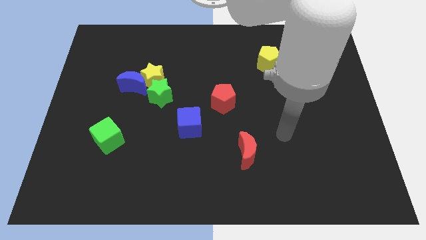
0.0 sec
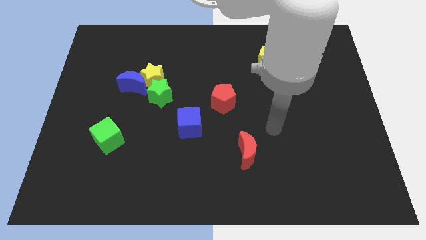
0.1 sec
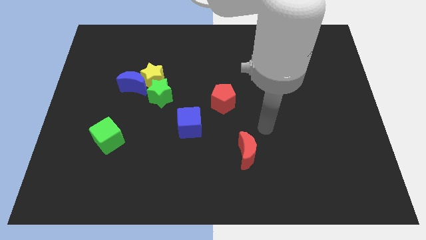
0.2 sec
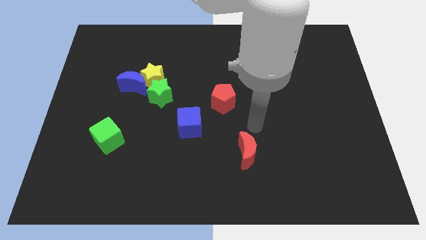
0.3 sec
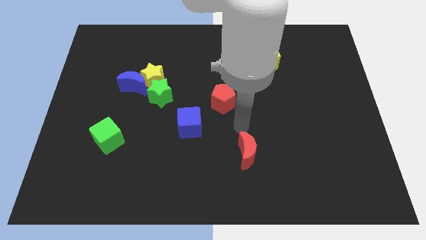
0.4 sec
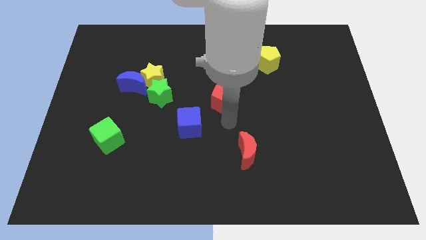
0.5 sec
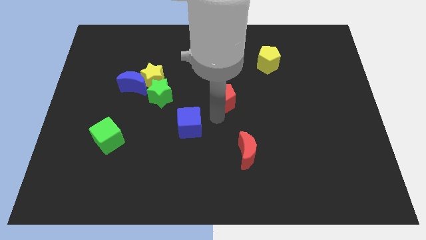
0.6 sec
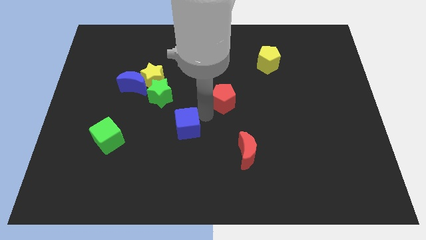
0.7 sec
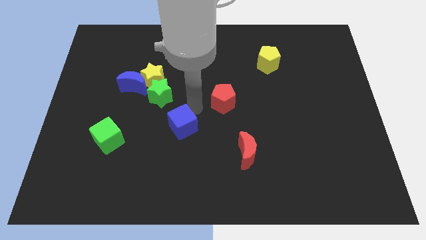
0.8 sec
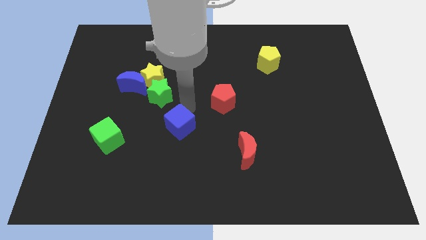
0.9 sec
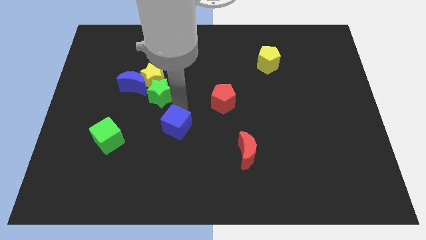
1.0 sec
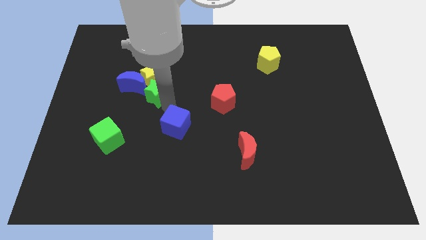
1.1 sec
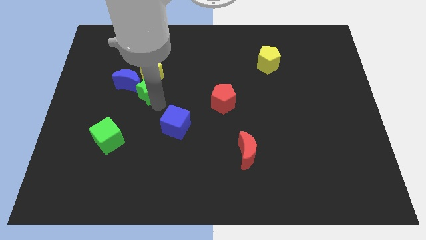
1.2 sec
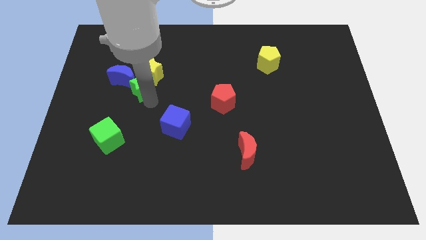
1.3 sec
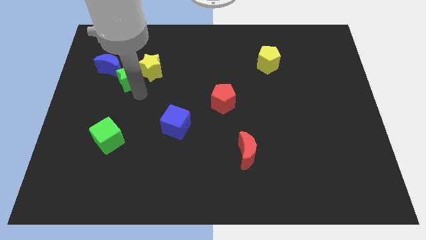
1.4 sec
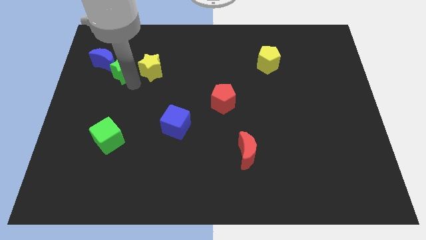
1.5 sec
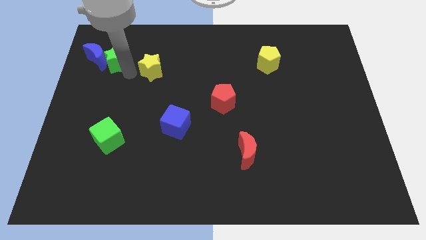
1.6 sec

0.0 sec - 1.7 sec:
pull the yellow star apart from the blue moon and green star

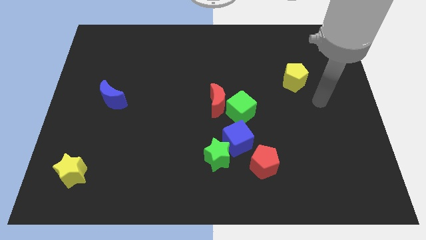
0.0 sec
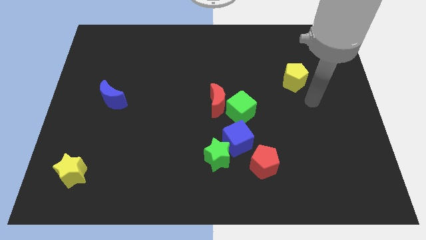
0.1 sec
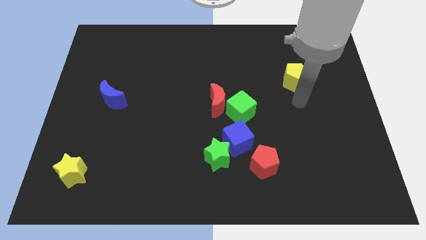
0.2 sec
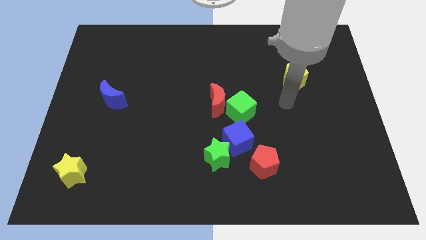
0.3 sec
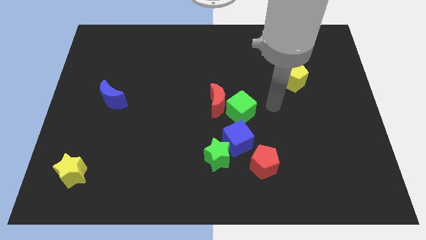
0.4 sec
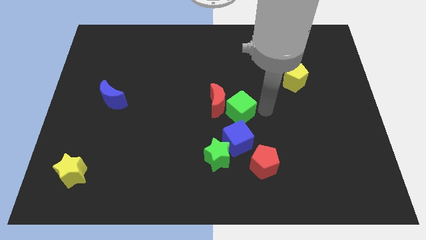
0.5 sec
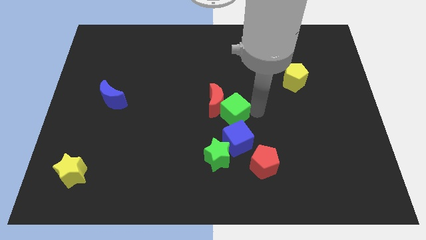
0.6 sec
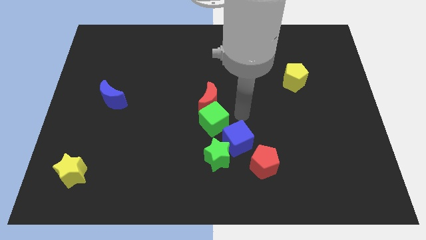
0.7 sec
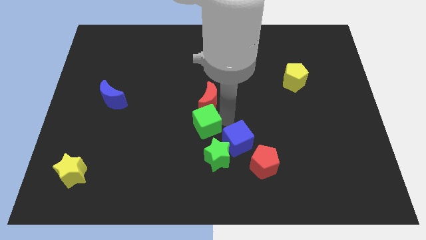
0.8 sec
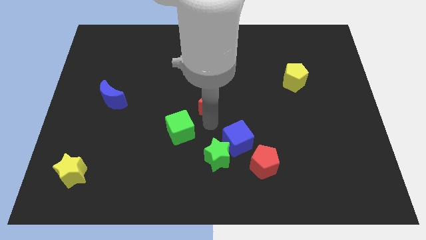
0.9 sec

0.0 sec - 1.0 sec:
move the red moon away from the green cube

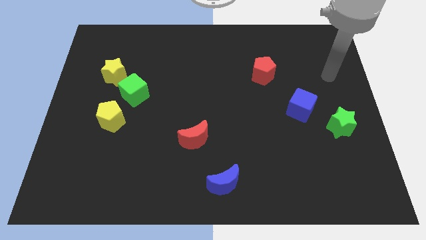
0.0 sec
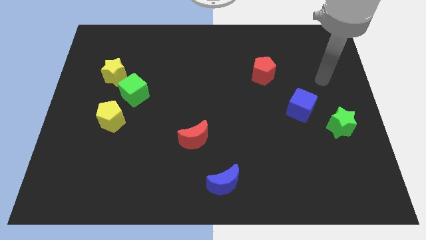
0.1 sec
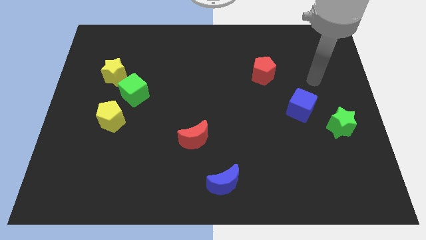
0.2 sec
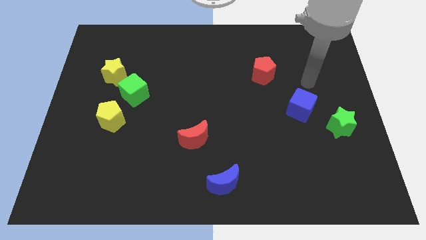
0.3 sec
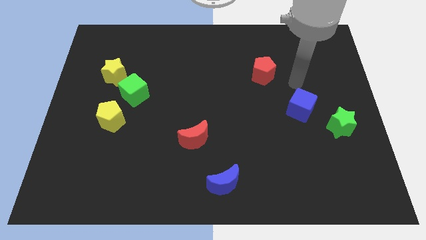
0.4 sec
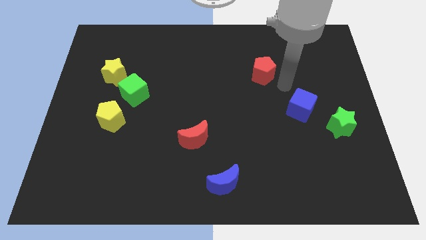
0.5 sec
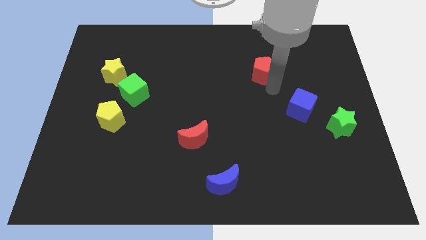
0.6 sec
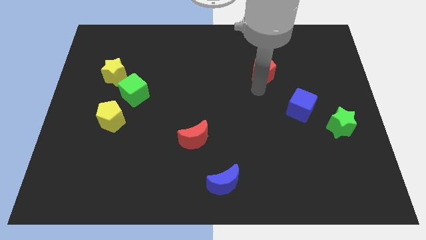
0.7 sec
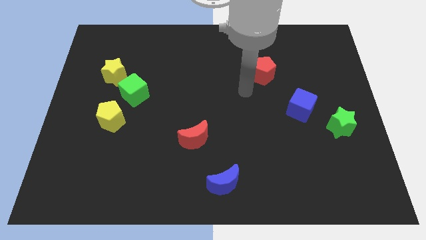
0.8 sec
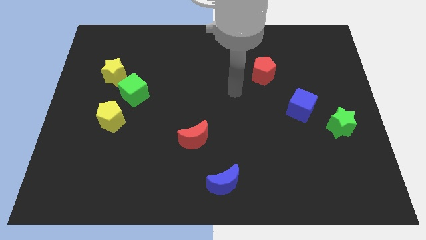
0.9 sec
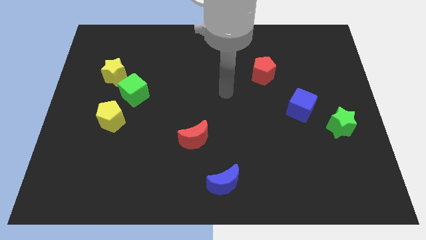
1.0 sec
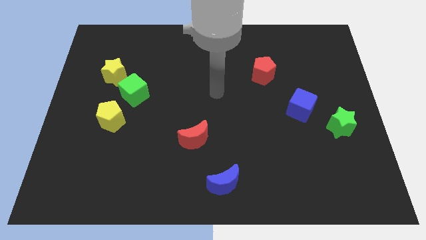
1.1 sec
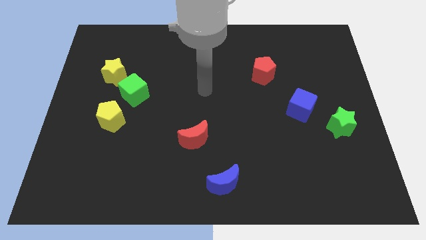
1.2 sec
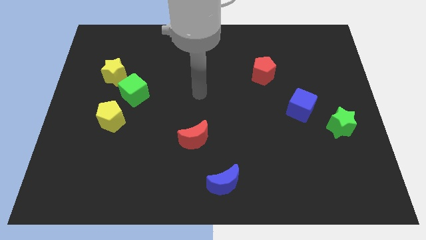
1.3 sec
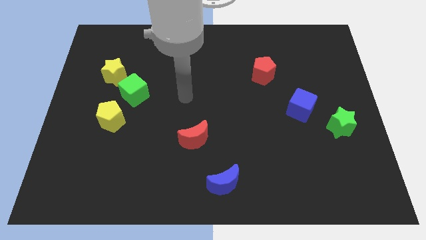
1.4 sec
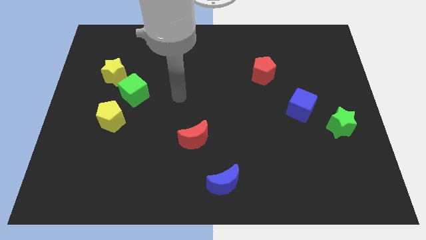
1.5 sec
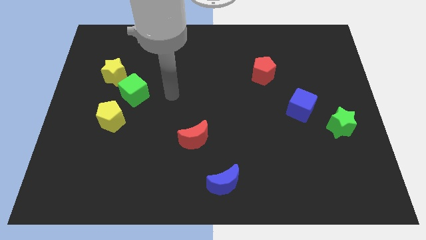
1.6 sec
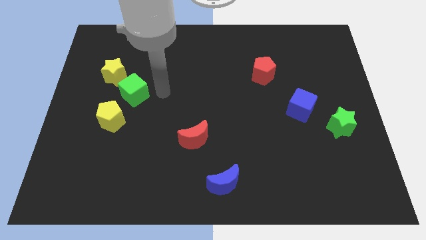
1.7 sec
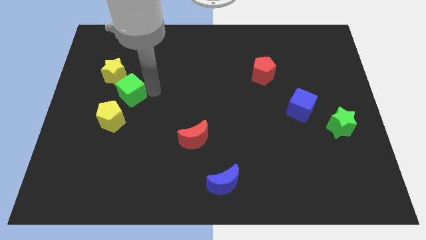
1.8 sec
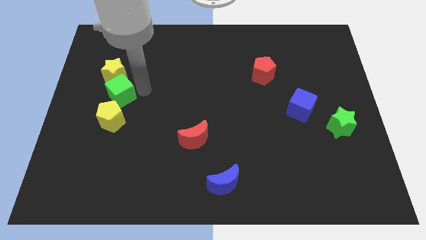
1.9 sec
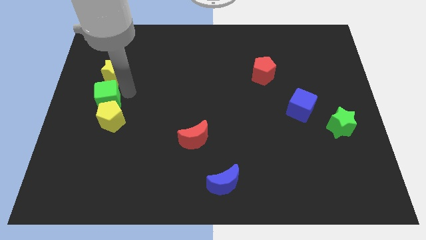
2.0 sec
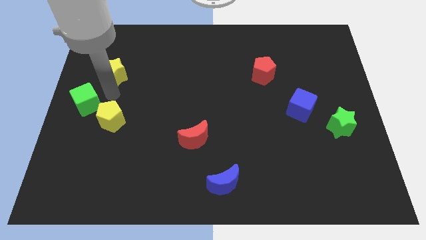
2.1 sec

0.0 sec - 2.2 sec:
move the yellow star away from the green cube

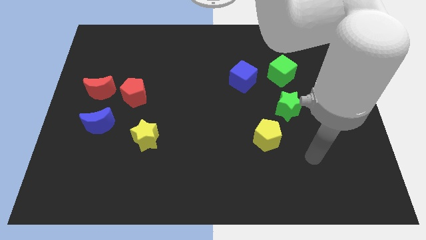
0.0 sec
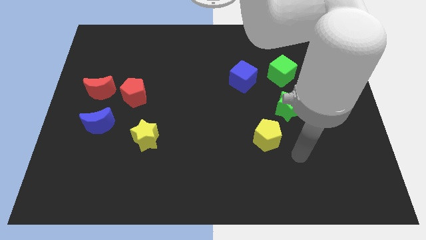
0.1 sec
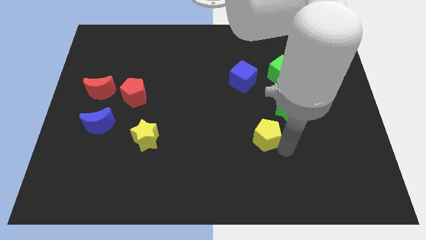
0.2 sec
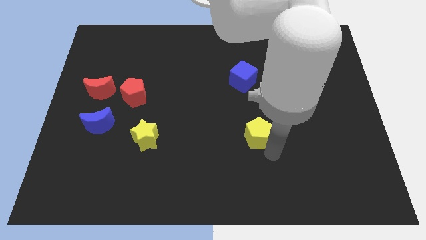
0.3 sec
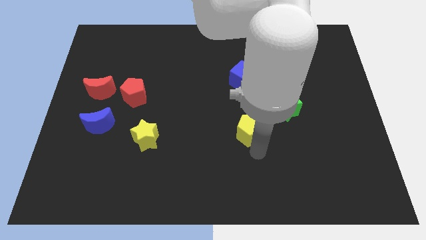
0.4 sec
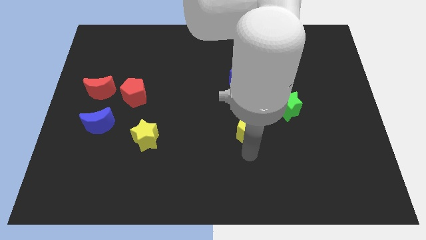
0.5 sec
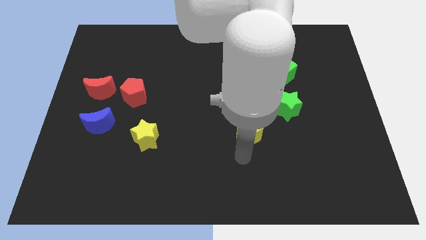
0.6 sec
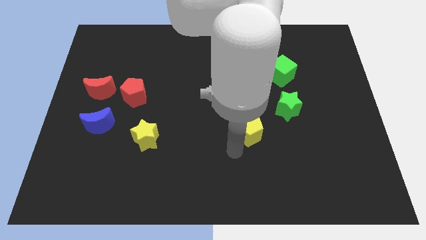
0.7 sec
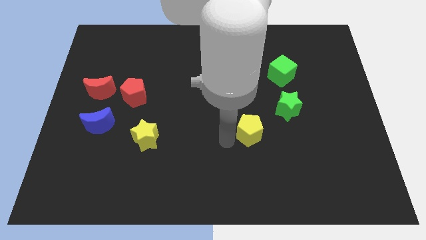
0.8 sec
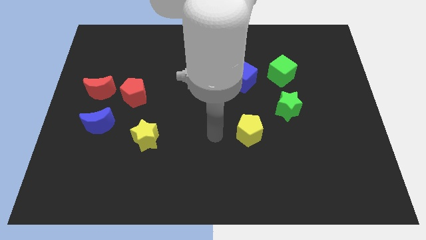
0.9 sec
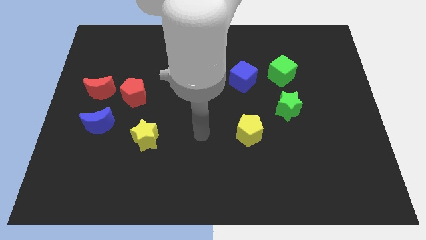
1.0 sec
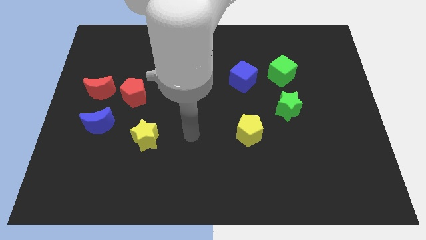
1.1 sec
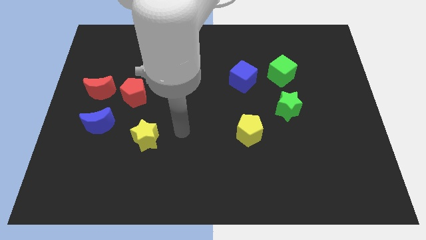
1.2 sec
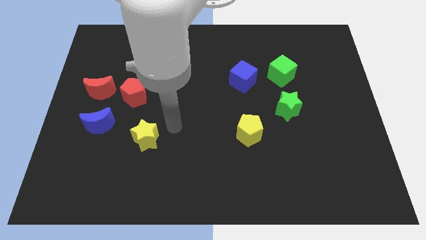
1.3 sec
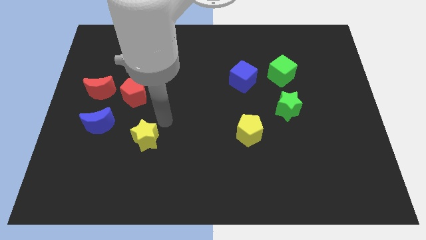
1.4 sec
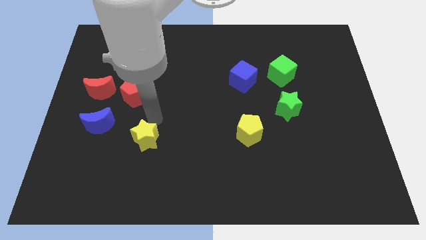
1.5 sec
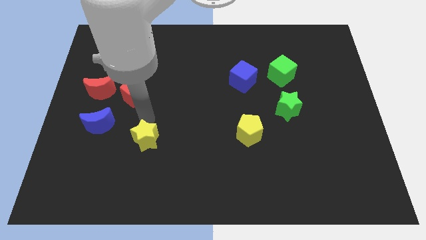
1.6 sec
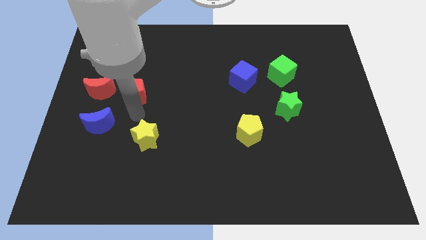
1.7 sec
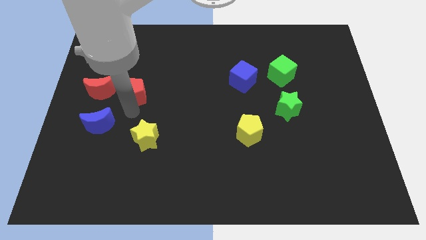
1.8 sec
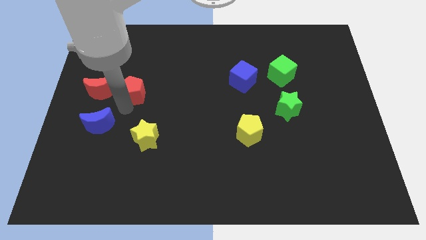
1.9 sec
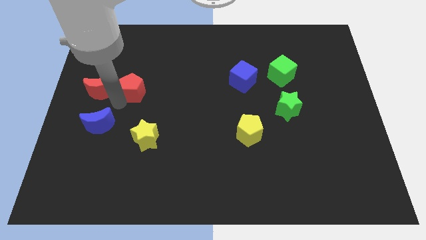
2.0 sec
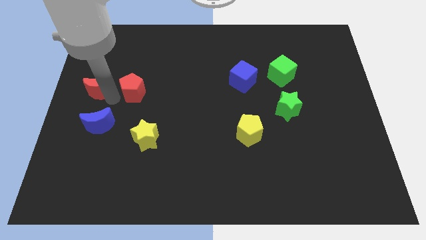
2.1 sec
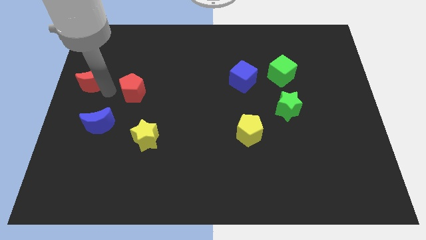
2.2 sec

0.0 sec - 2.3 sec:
pull the red pentagon apart from the red moon

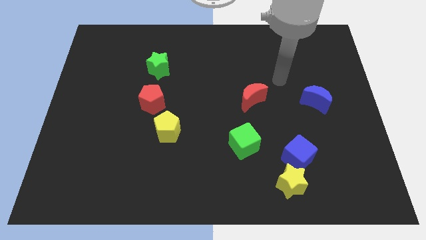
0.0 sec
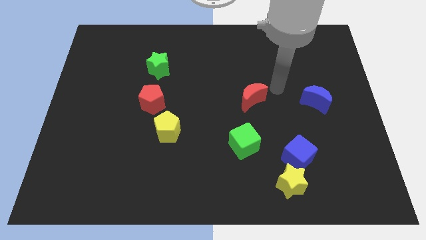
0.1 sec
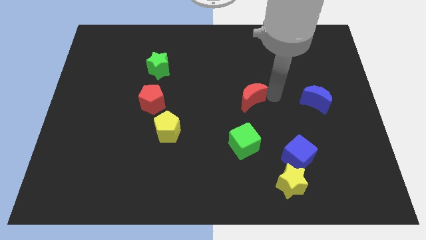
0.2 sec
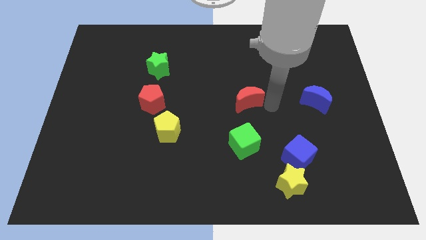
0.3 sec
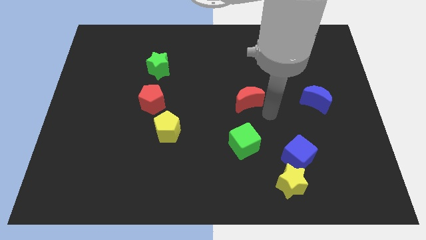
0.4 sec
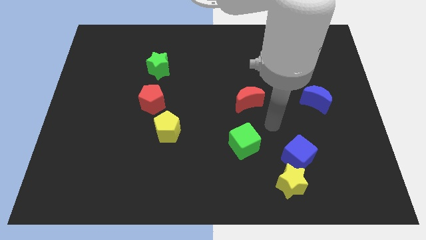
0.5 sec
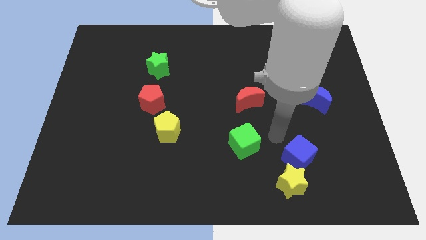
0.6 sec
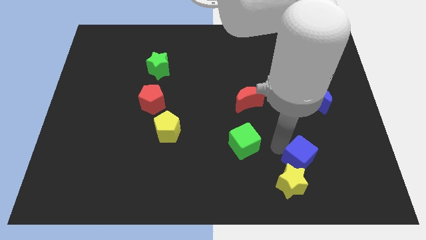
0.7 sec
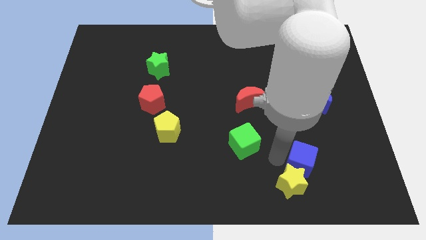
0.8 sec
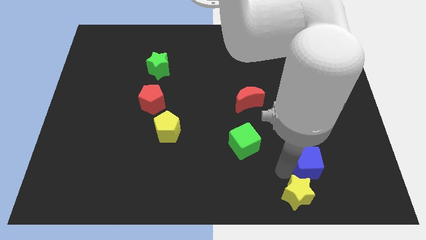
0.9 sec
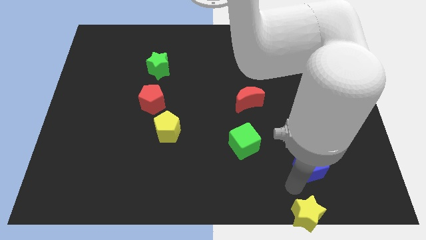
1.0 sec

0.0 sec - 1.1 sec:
move the blue cube away from the yellow star

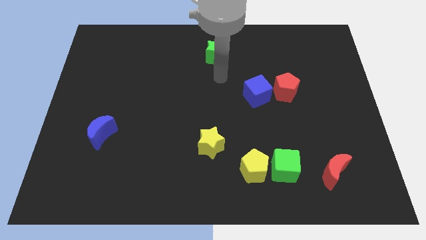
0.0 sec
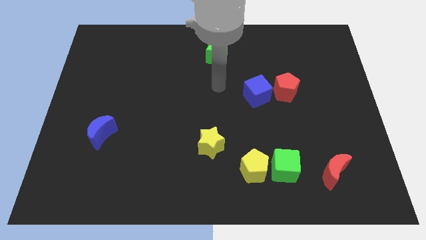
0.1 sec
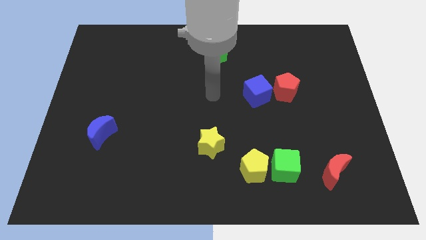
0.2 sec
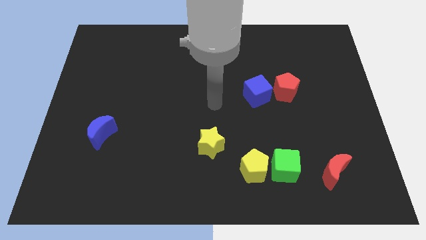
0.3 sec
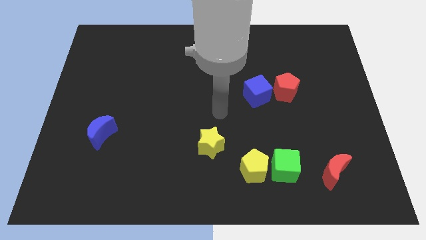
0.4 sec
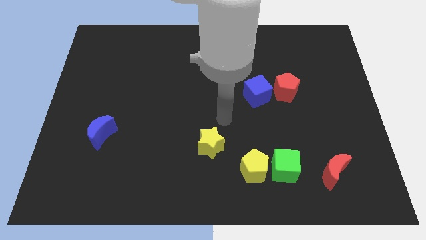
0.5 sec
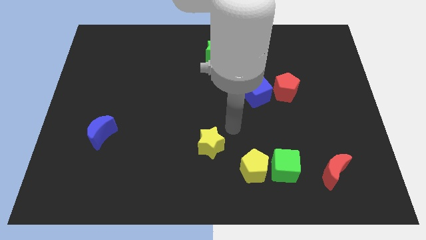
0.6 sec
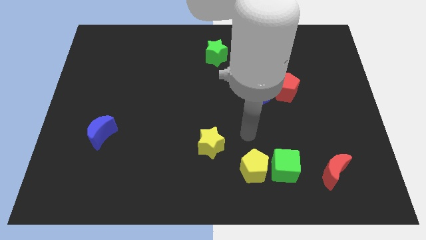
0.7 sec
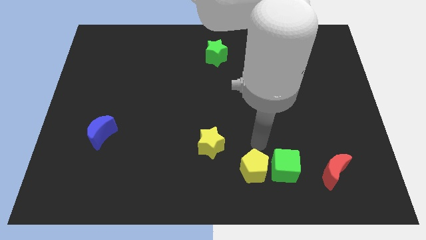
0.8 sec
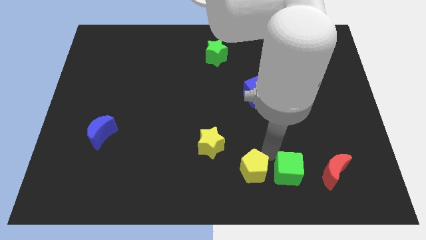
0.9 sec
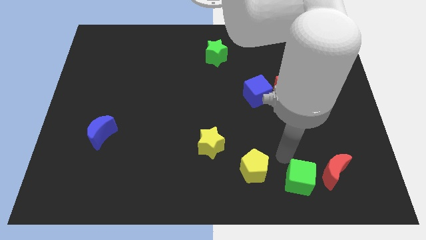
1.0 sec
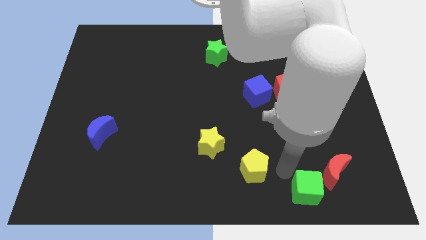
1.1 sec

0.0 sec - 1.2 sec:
separate the yellow pentagon from the green cube
